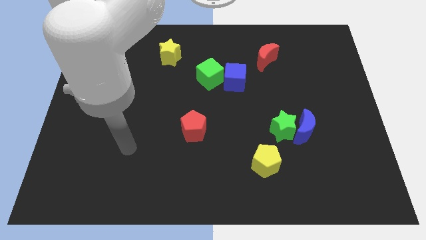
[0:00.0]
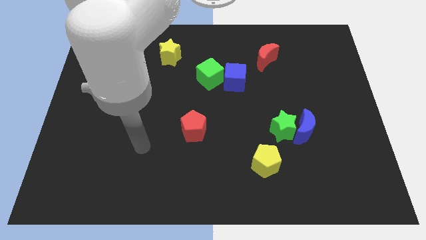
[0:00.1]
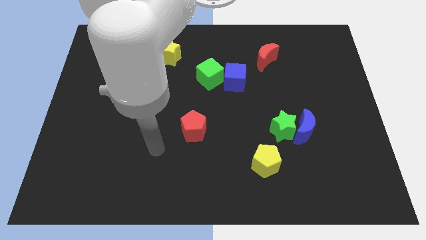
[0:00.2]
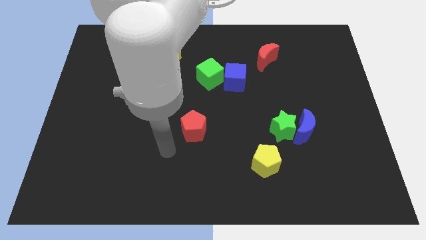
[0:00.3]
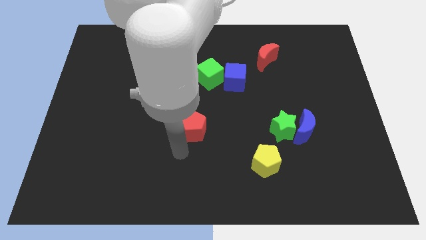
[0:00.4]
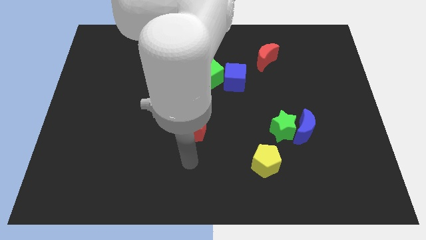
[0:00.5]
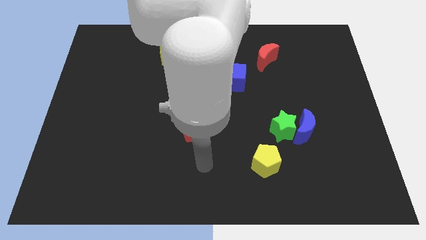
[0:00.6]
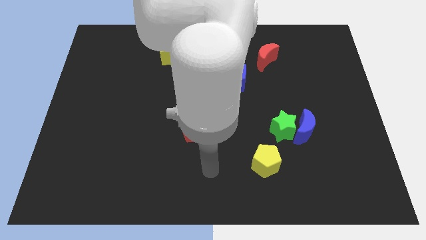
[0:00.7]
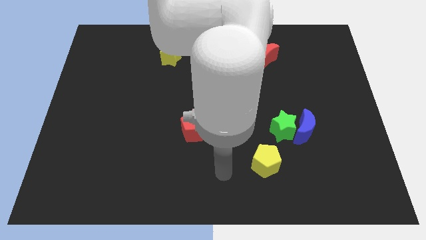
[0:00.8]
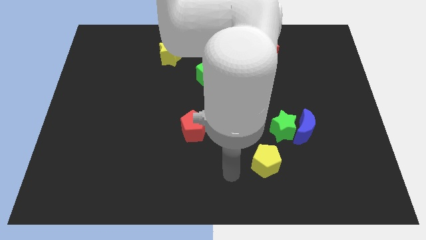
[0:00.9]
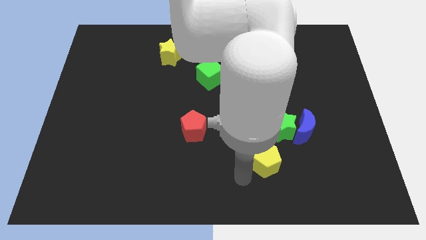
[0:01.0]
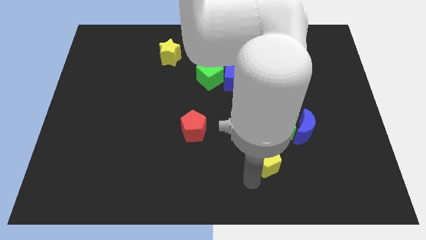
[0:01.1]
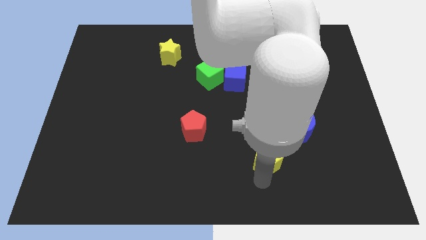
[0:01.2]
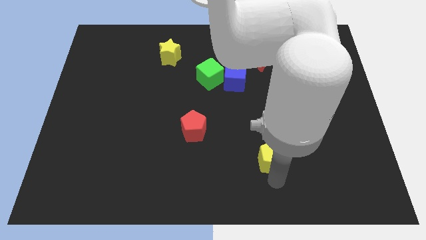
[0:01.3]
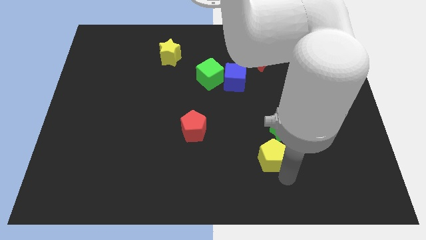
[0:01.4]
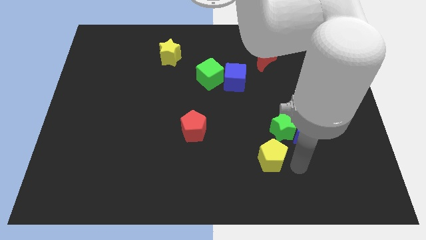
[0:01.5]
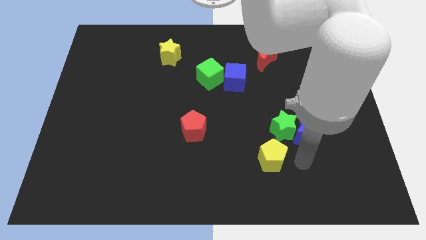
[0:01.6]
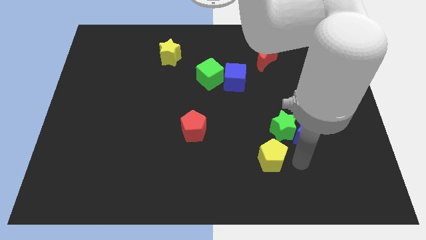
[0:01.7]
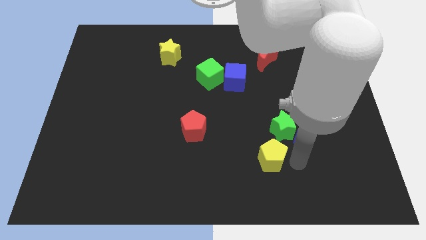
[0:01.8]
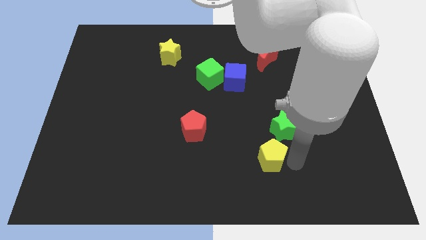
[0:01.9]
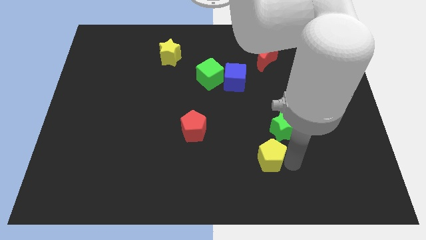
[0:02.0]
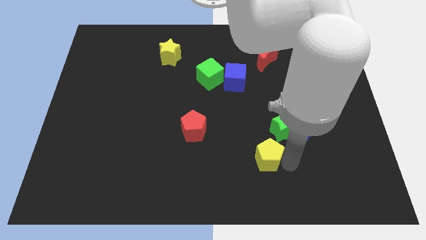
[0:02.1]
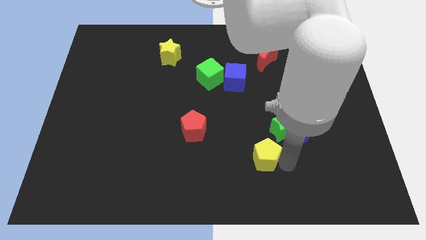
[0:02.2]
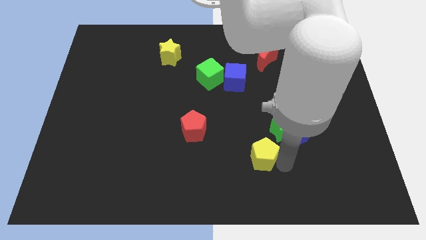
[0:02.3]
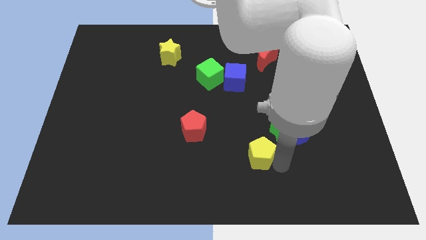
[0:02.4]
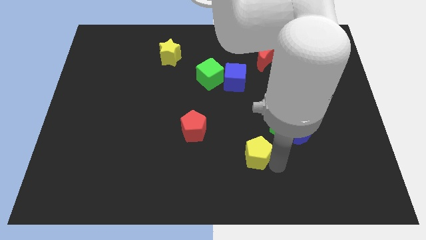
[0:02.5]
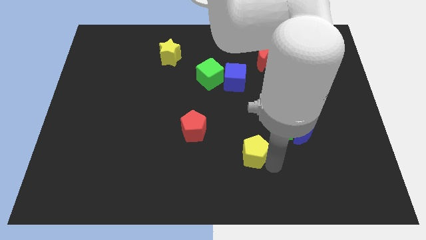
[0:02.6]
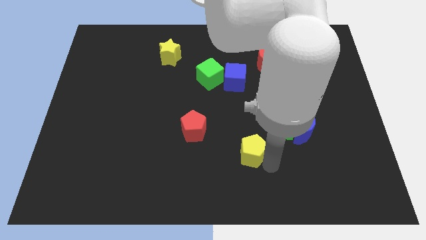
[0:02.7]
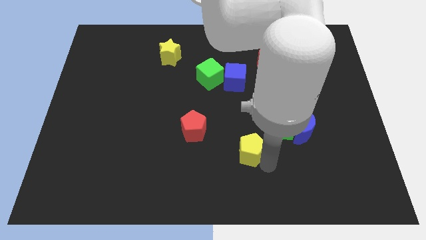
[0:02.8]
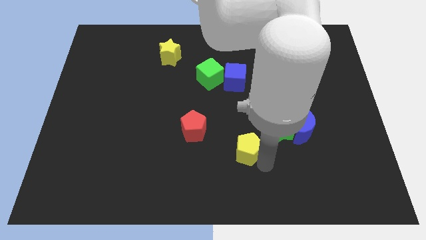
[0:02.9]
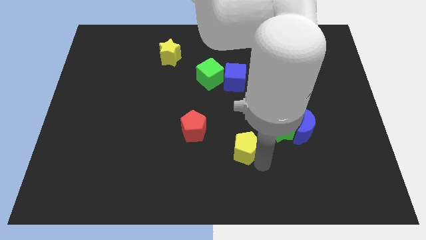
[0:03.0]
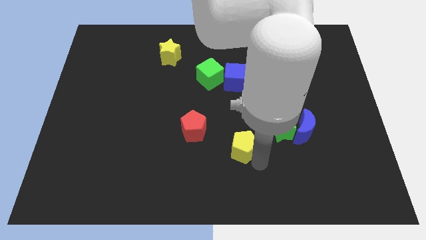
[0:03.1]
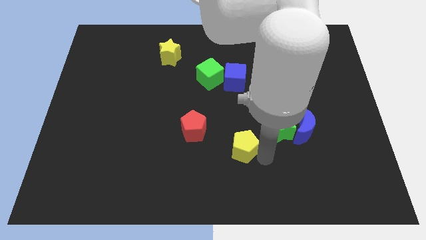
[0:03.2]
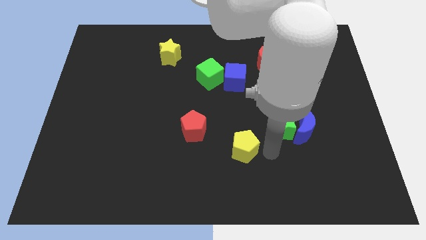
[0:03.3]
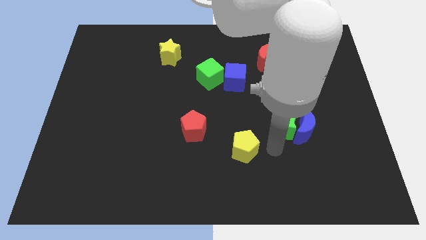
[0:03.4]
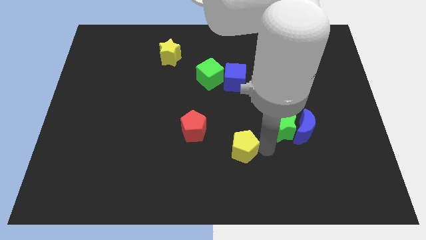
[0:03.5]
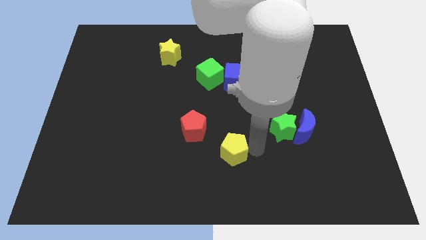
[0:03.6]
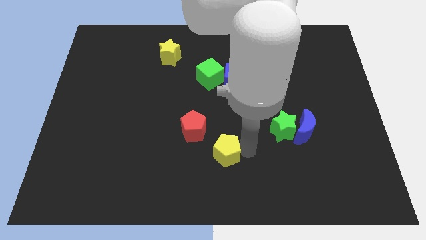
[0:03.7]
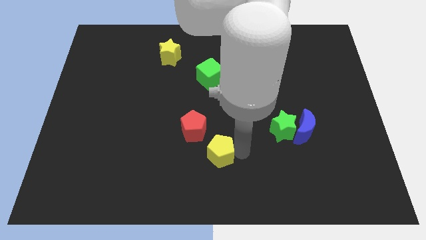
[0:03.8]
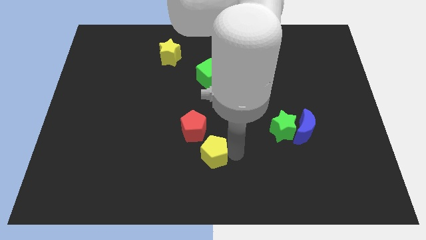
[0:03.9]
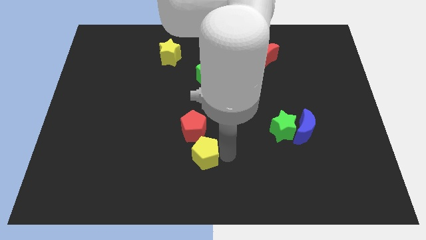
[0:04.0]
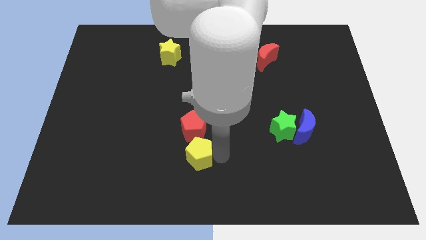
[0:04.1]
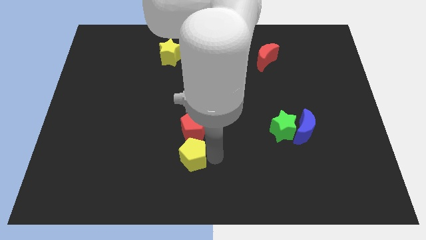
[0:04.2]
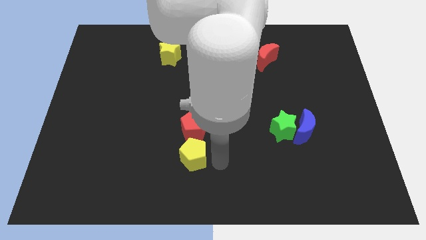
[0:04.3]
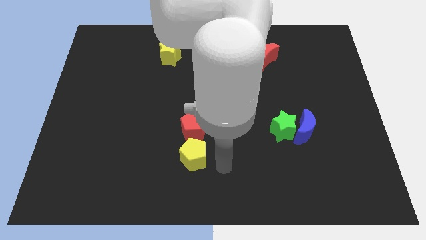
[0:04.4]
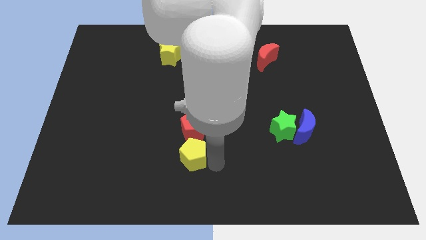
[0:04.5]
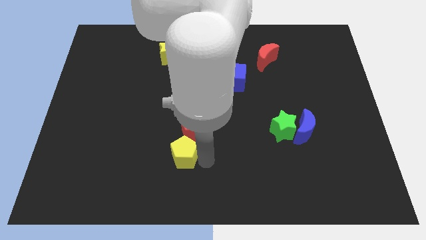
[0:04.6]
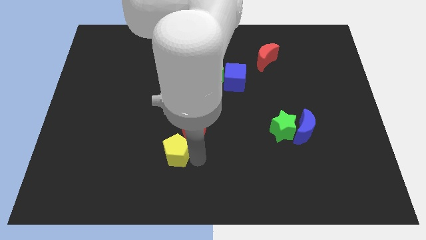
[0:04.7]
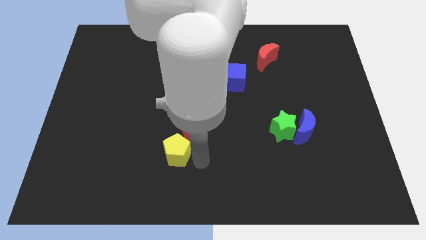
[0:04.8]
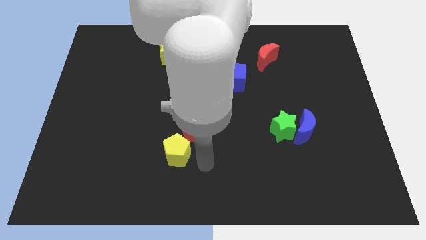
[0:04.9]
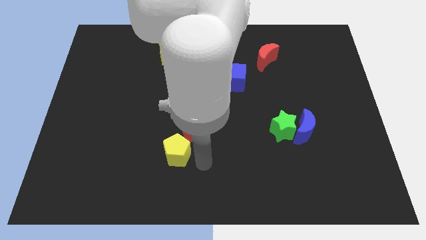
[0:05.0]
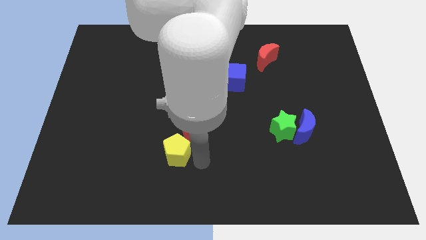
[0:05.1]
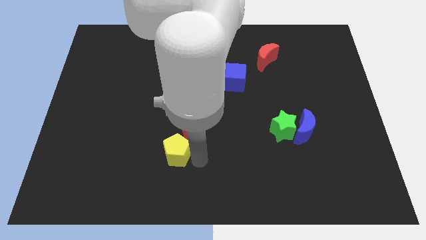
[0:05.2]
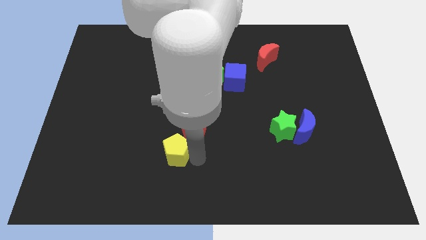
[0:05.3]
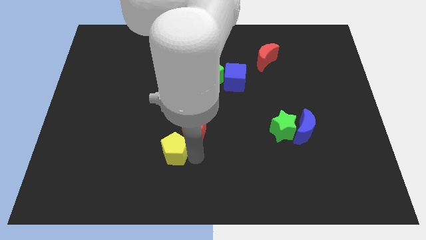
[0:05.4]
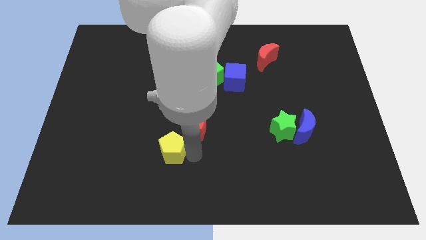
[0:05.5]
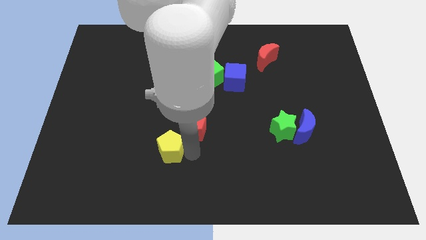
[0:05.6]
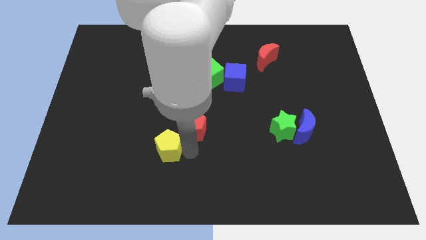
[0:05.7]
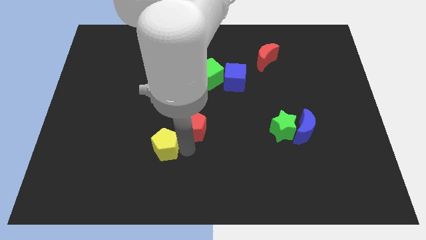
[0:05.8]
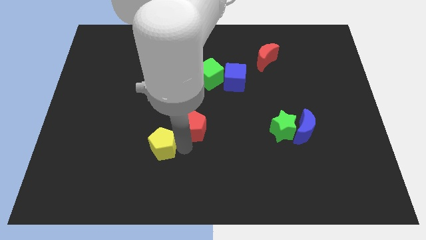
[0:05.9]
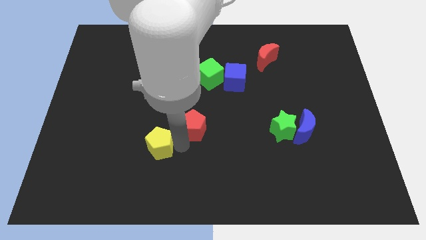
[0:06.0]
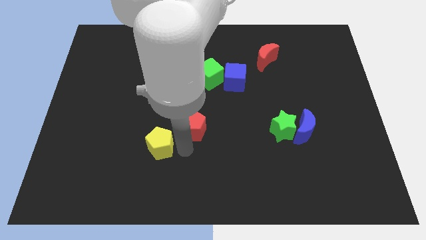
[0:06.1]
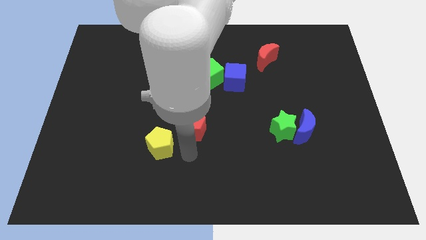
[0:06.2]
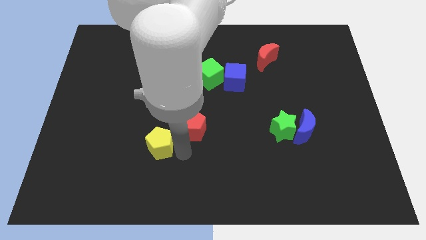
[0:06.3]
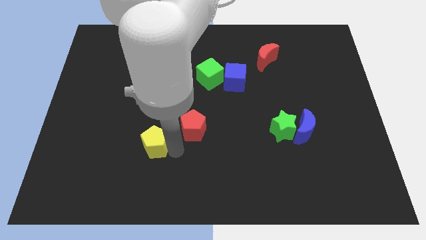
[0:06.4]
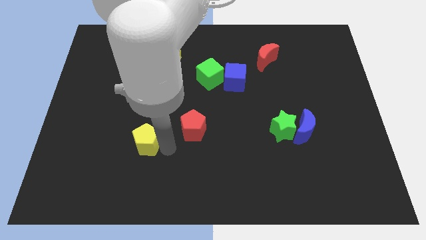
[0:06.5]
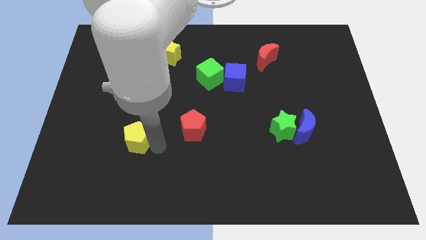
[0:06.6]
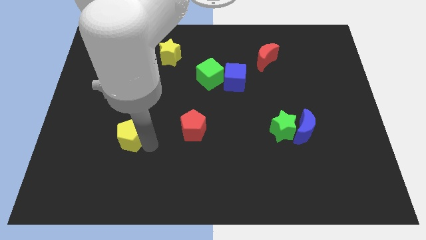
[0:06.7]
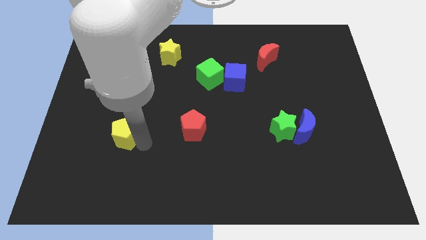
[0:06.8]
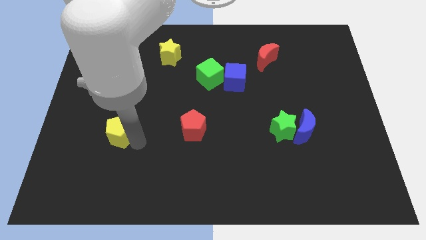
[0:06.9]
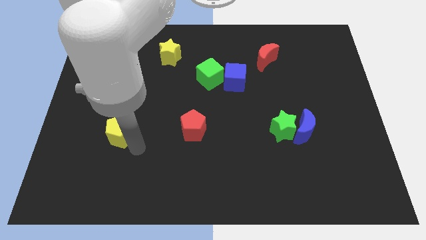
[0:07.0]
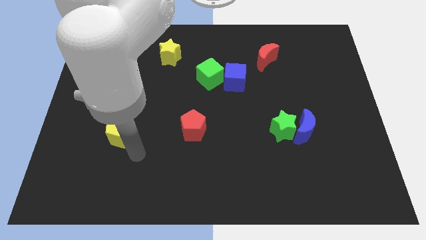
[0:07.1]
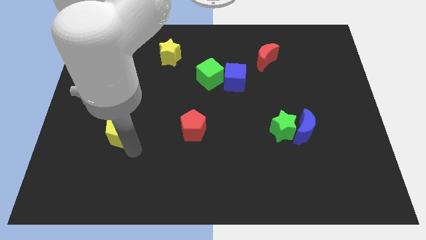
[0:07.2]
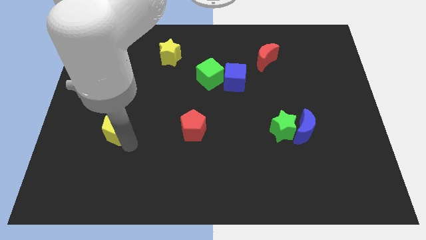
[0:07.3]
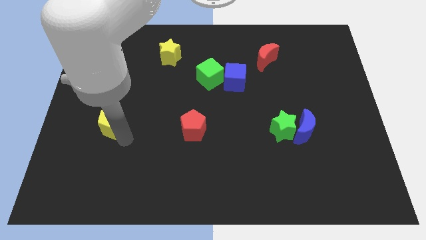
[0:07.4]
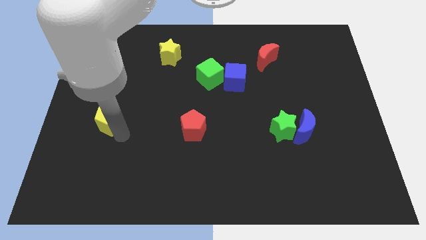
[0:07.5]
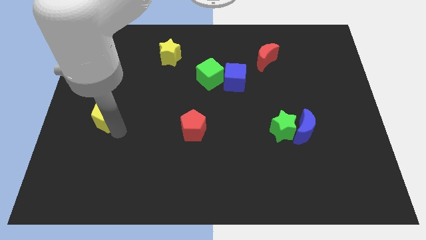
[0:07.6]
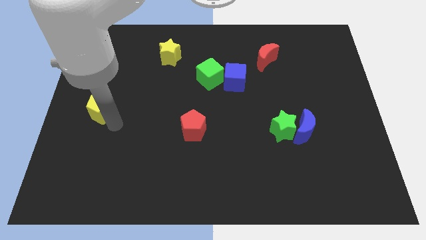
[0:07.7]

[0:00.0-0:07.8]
put the yellow pentagon to the center left
